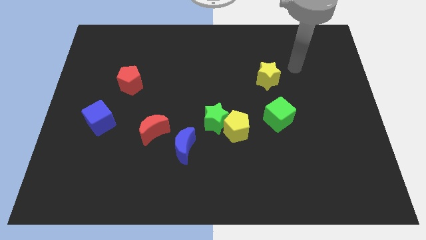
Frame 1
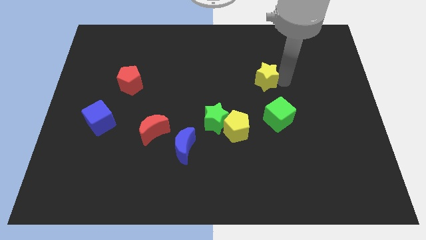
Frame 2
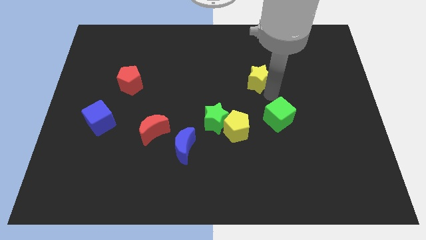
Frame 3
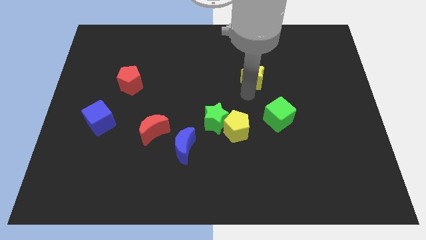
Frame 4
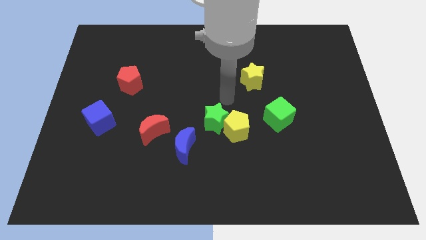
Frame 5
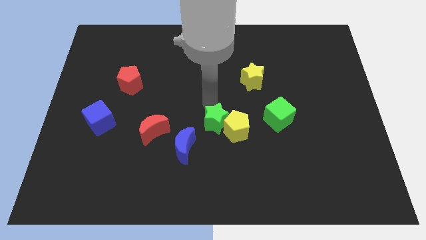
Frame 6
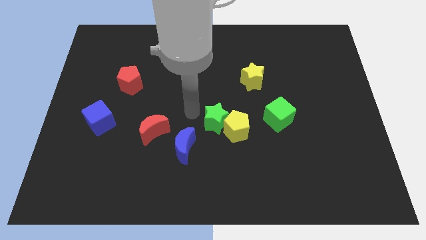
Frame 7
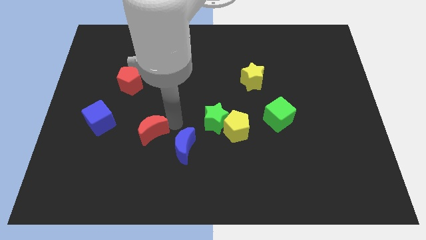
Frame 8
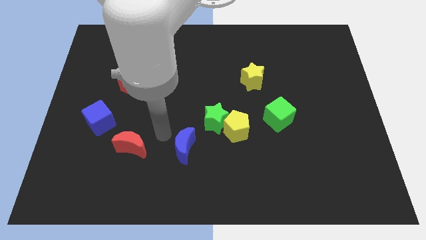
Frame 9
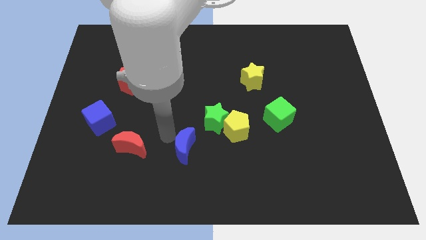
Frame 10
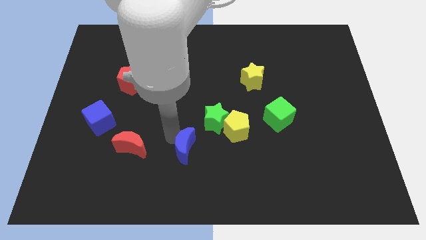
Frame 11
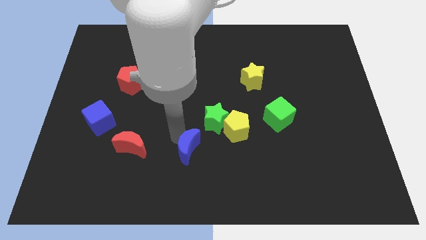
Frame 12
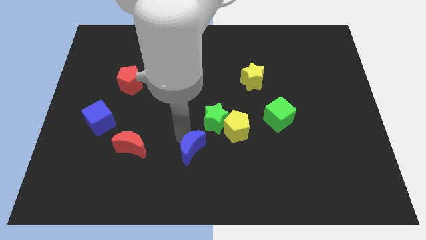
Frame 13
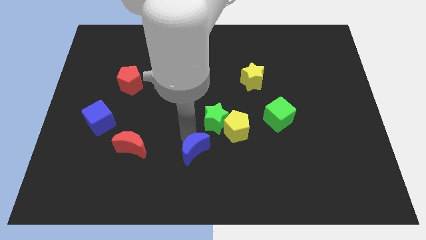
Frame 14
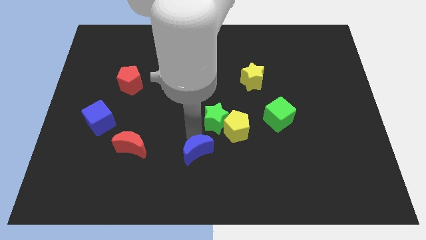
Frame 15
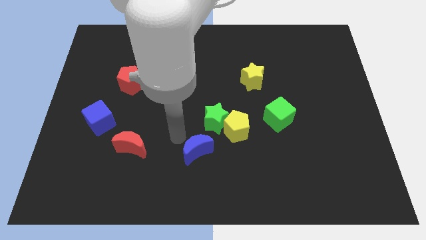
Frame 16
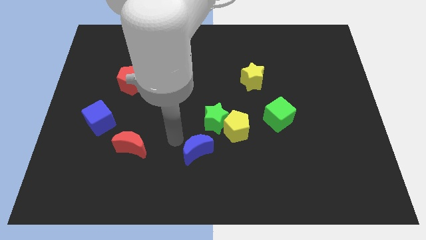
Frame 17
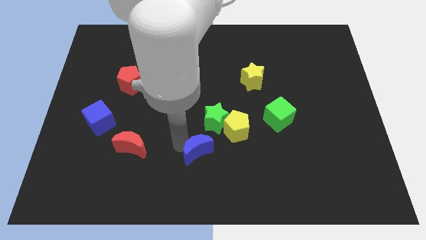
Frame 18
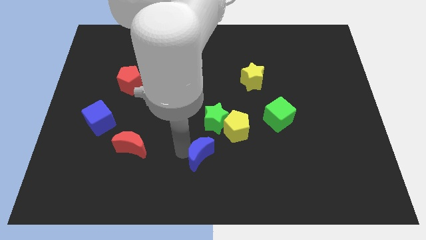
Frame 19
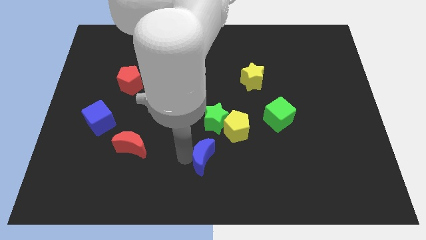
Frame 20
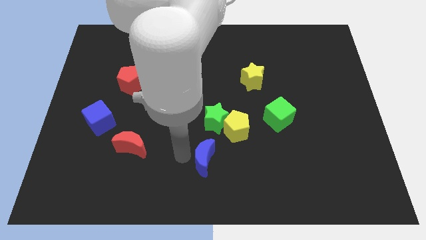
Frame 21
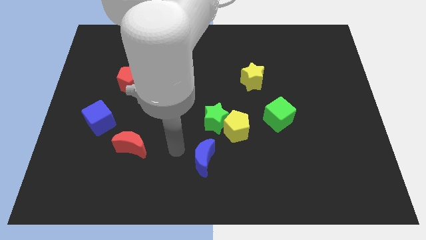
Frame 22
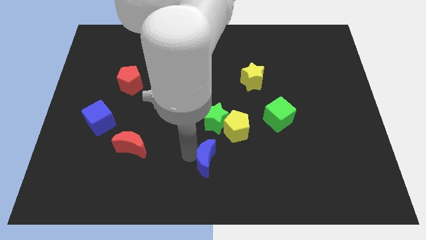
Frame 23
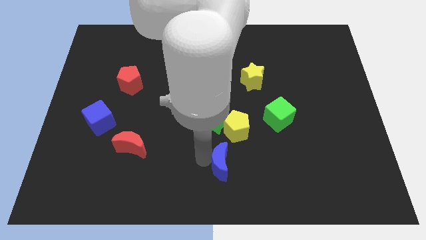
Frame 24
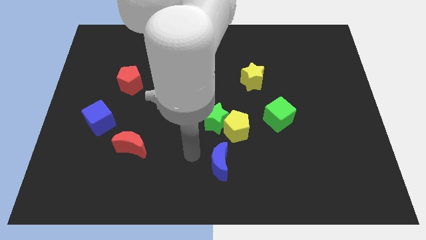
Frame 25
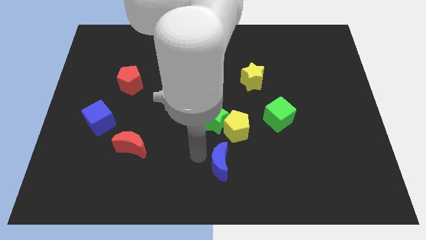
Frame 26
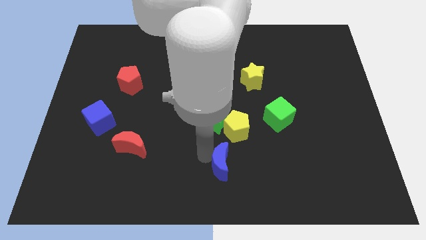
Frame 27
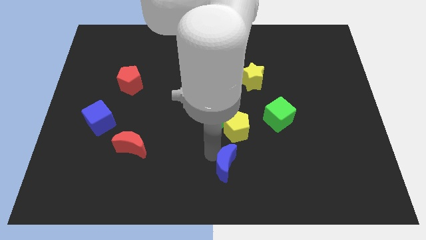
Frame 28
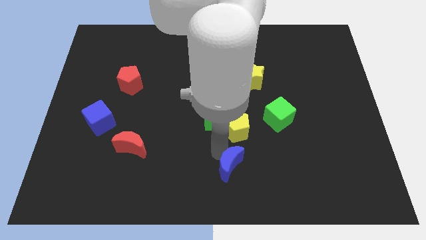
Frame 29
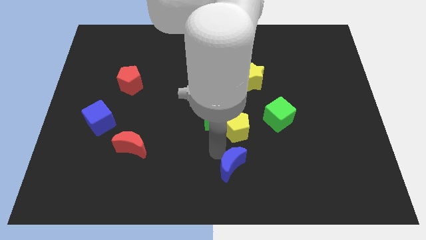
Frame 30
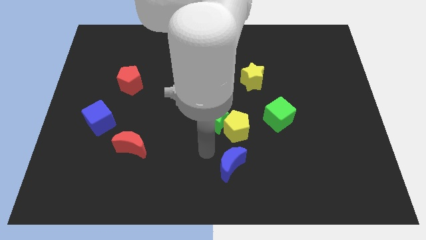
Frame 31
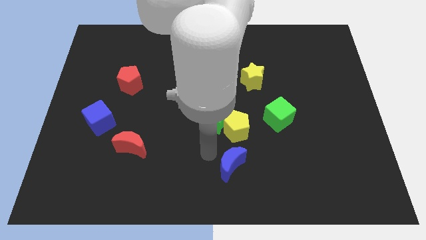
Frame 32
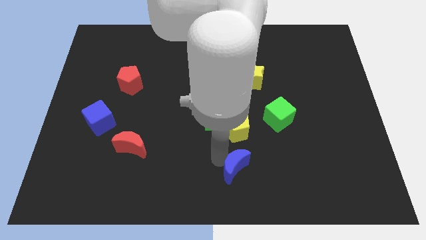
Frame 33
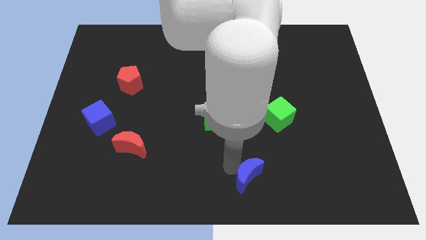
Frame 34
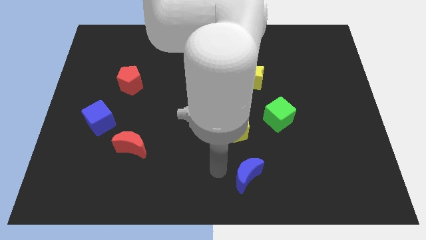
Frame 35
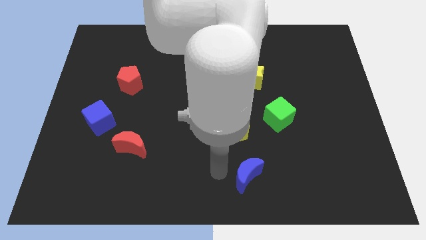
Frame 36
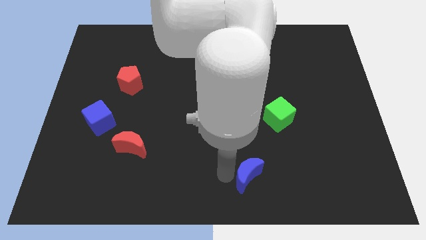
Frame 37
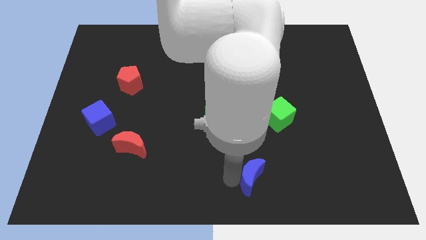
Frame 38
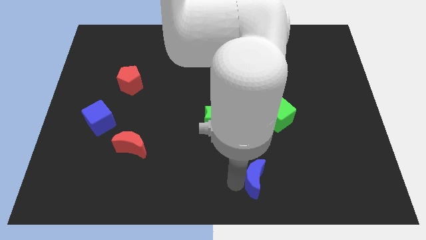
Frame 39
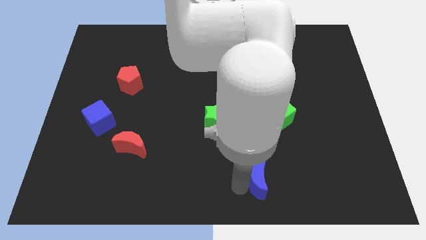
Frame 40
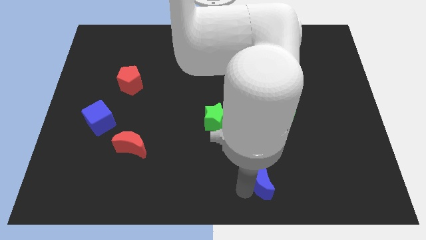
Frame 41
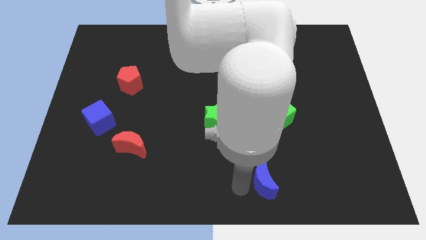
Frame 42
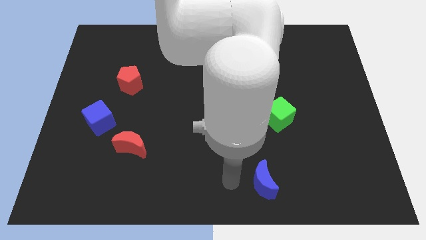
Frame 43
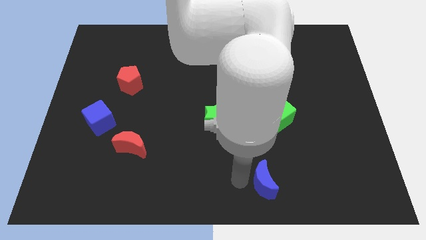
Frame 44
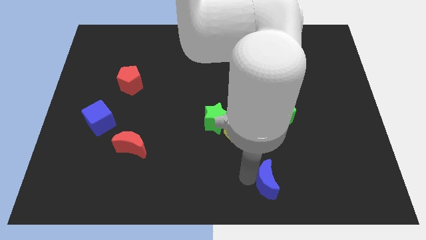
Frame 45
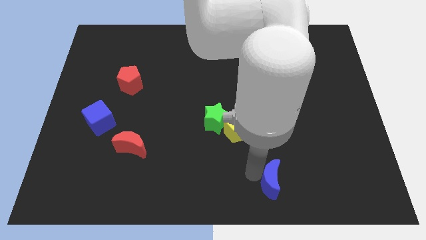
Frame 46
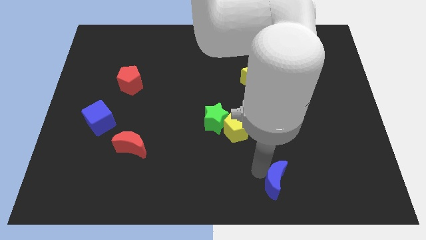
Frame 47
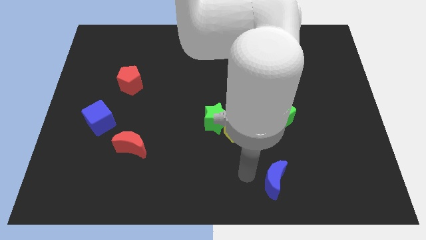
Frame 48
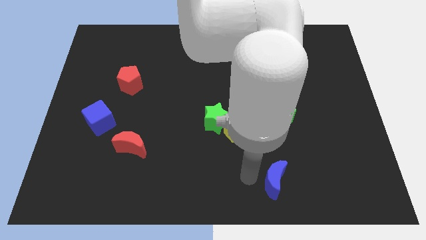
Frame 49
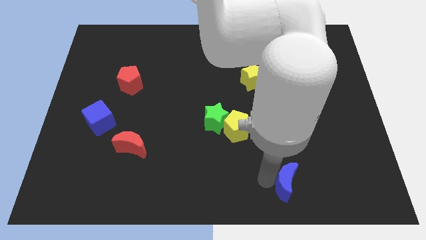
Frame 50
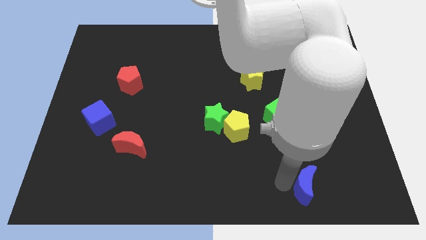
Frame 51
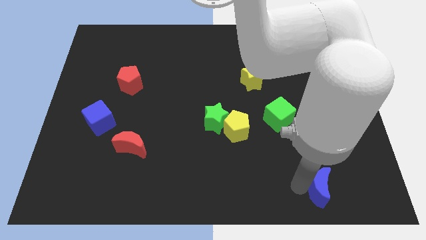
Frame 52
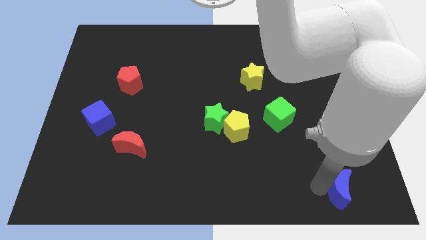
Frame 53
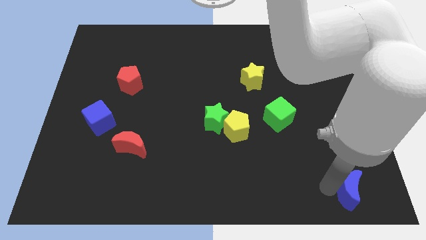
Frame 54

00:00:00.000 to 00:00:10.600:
move the blue moon to the bottom right

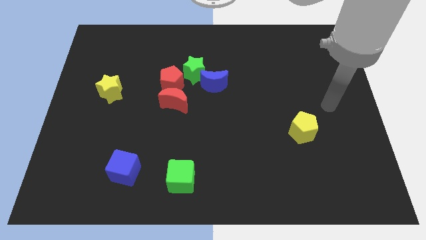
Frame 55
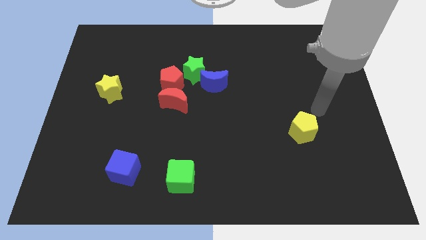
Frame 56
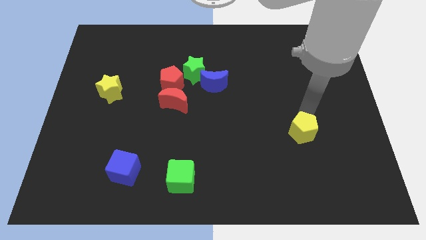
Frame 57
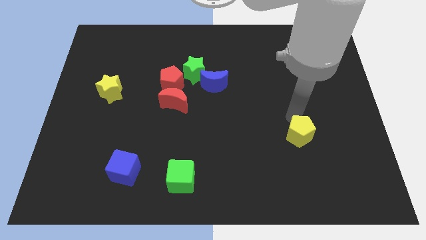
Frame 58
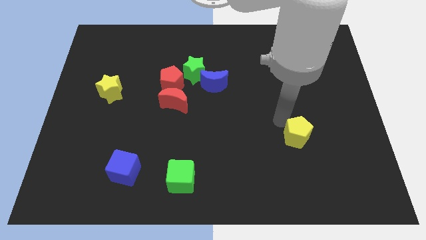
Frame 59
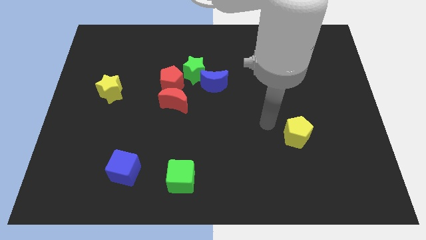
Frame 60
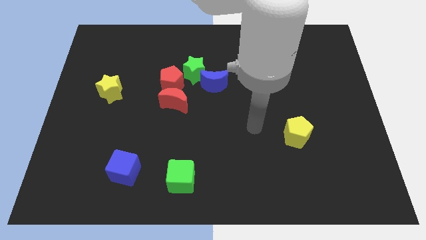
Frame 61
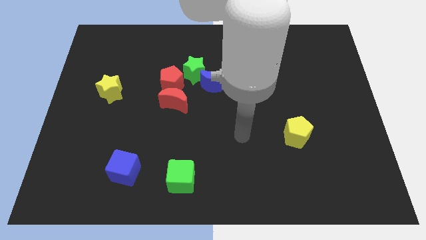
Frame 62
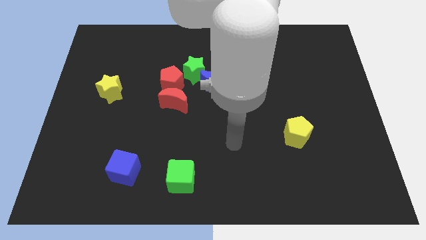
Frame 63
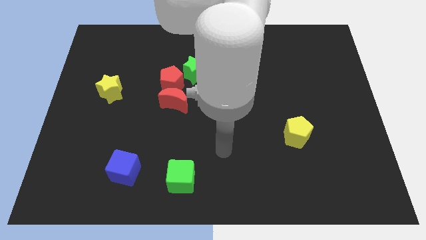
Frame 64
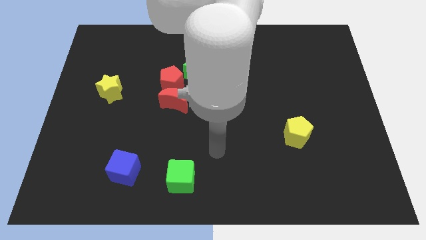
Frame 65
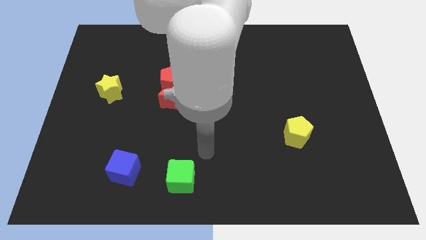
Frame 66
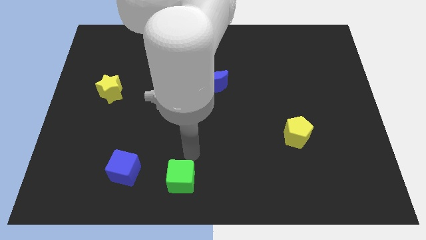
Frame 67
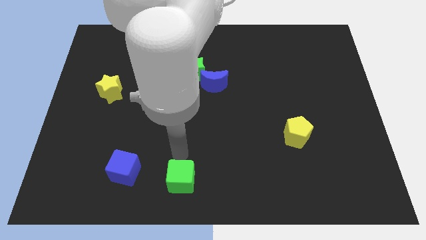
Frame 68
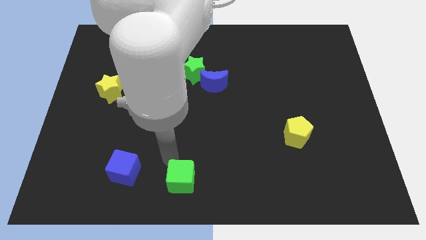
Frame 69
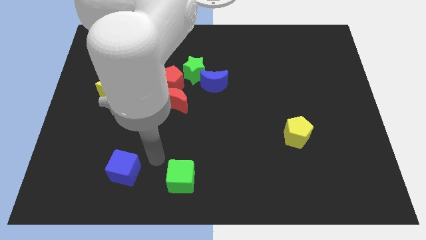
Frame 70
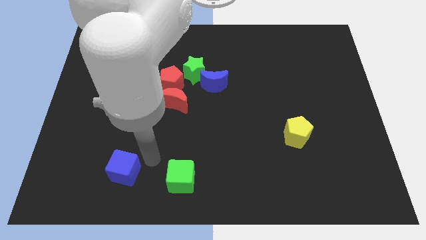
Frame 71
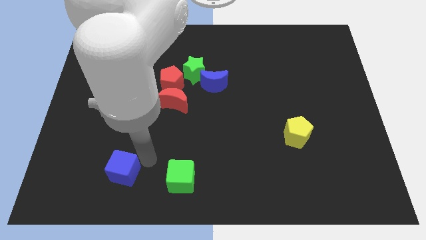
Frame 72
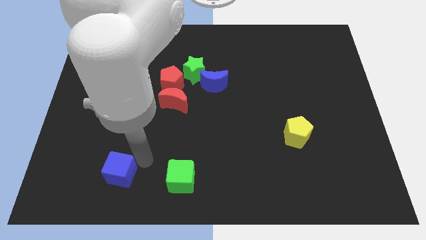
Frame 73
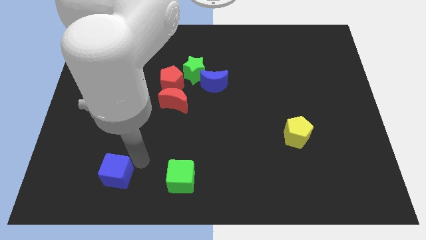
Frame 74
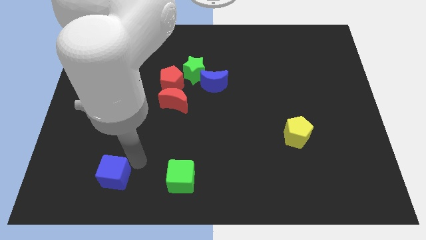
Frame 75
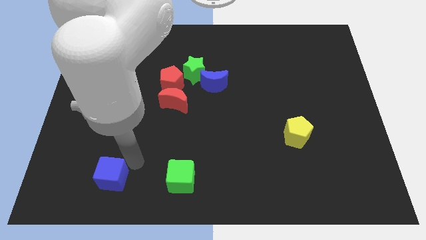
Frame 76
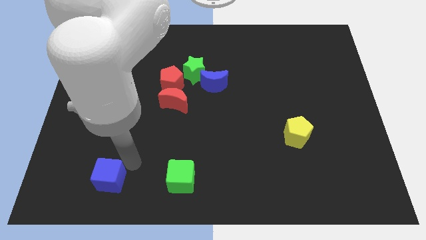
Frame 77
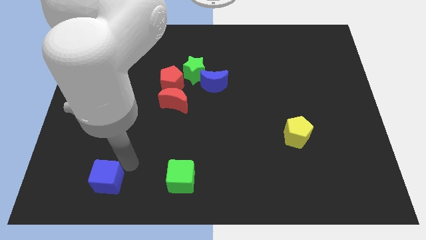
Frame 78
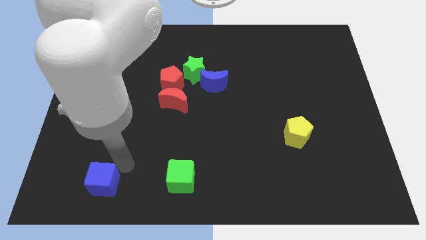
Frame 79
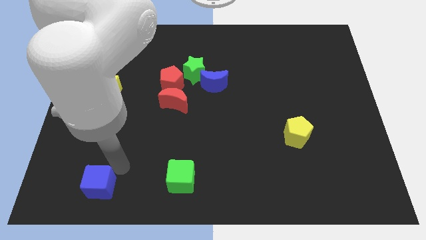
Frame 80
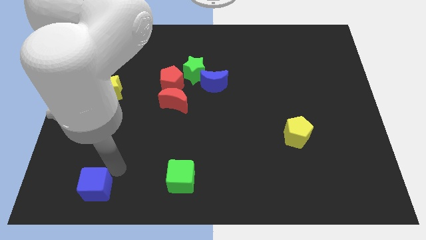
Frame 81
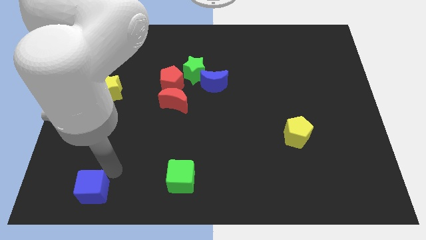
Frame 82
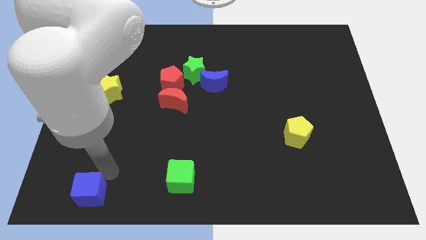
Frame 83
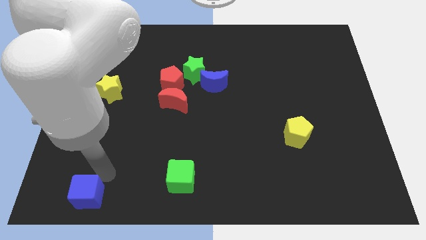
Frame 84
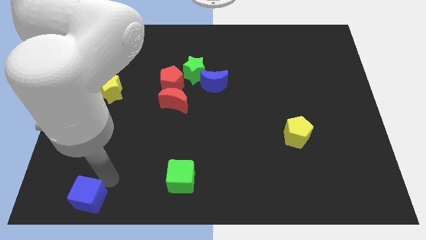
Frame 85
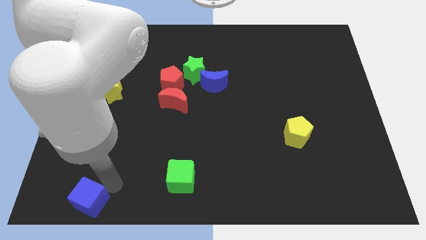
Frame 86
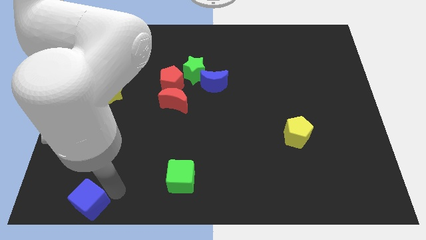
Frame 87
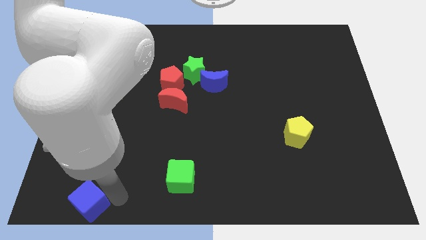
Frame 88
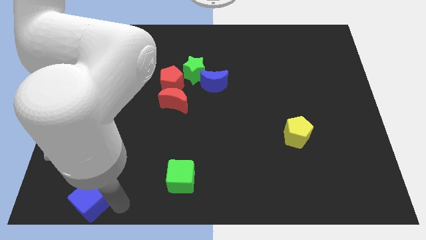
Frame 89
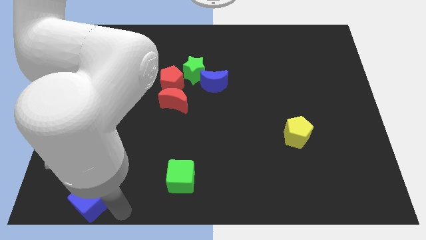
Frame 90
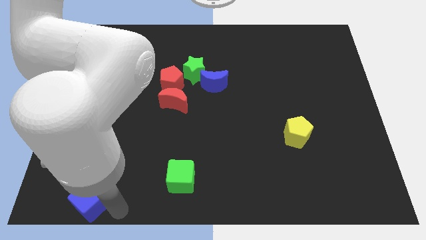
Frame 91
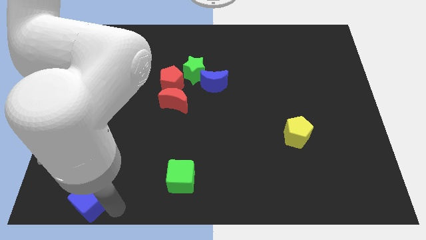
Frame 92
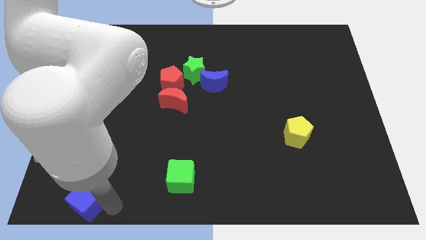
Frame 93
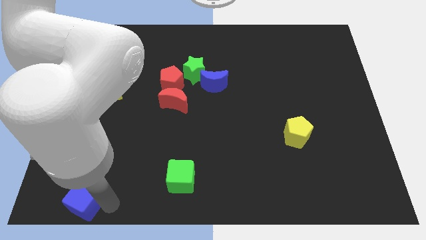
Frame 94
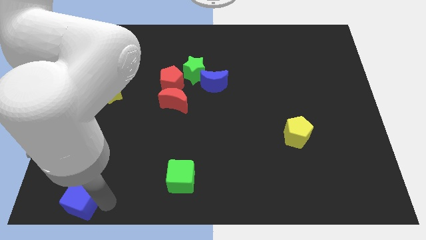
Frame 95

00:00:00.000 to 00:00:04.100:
slide the blue cube to the bottom left
